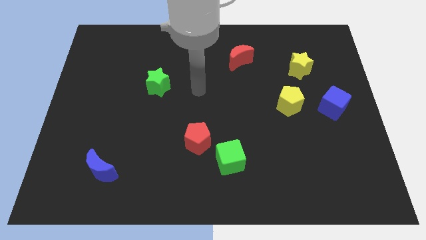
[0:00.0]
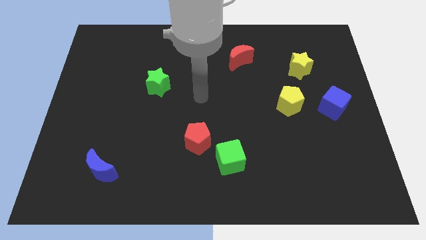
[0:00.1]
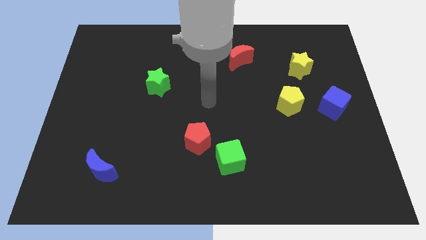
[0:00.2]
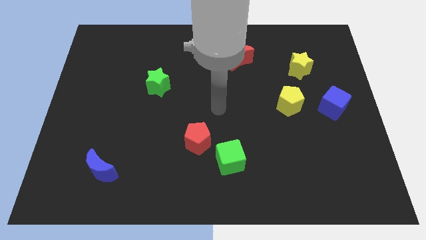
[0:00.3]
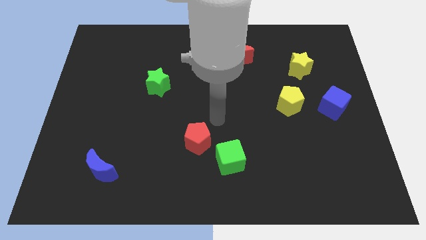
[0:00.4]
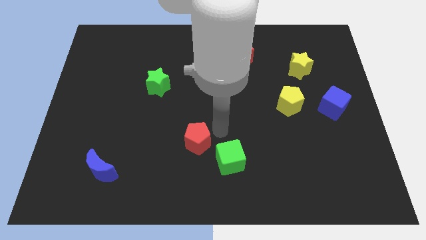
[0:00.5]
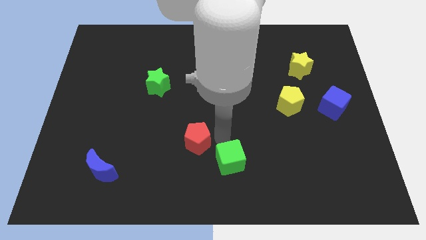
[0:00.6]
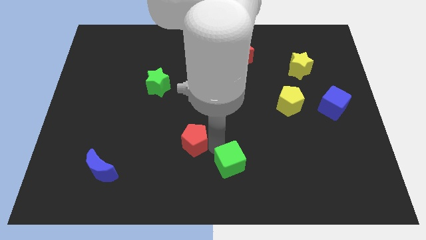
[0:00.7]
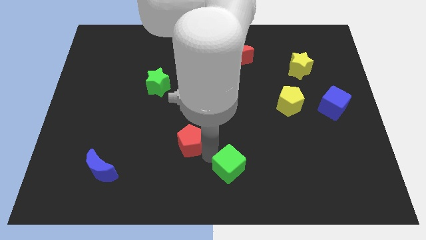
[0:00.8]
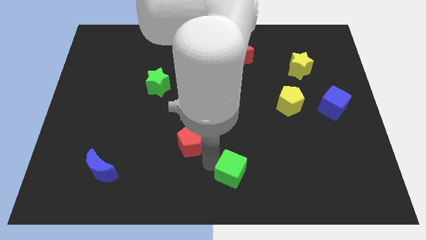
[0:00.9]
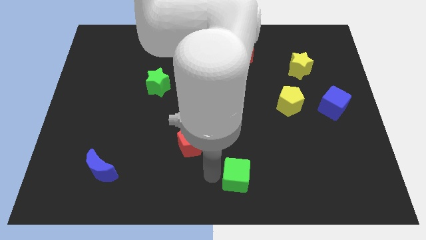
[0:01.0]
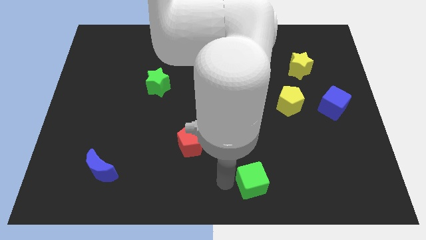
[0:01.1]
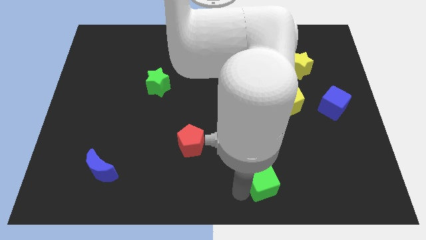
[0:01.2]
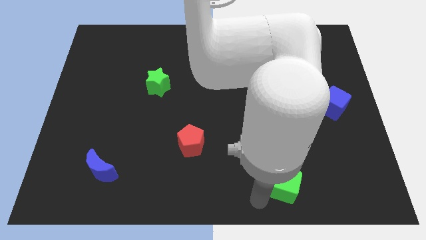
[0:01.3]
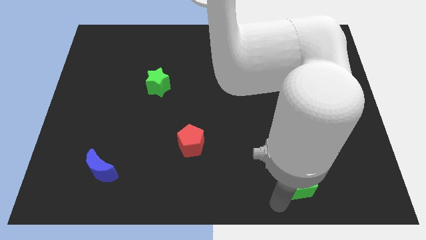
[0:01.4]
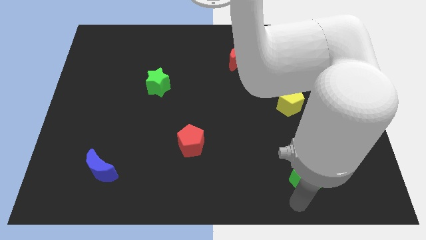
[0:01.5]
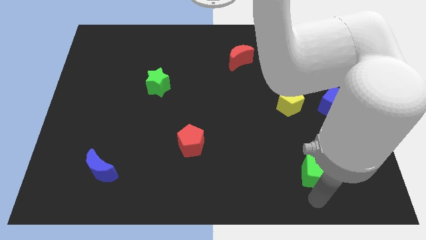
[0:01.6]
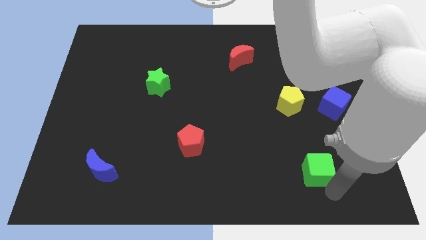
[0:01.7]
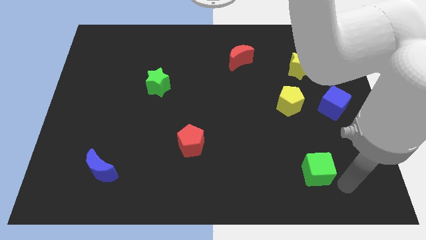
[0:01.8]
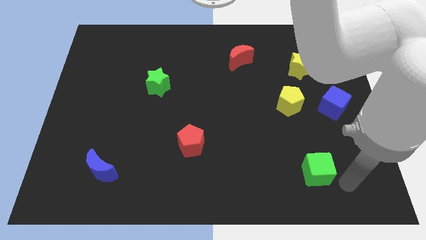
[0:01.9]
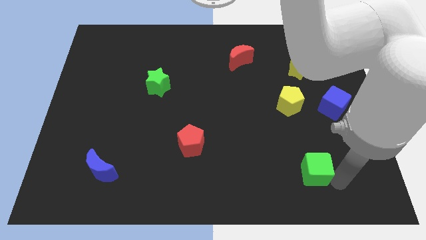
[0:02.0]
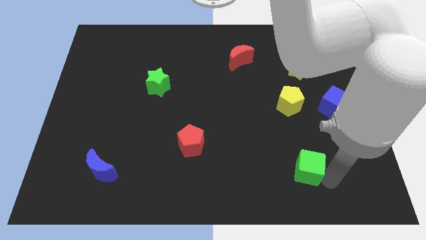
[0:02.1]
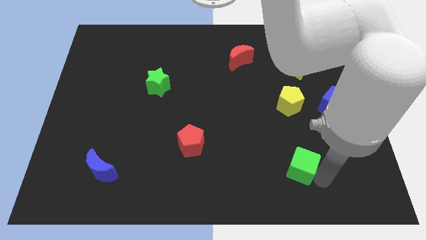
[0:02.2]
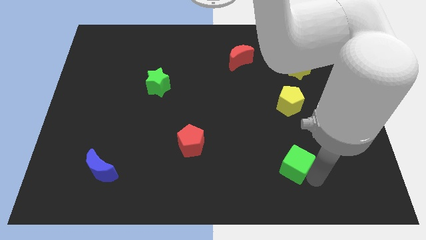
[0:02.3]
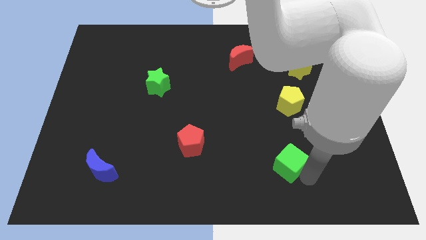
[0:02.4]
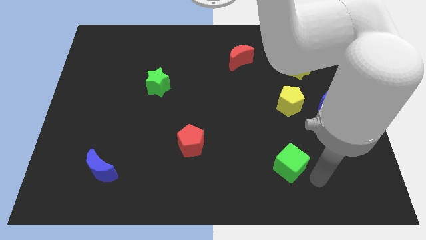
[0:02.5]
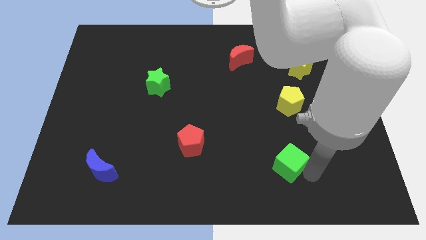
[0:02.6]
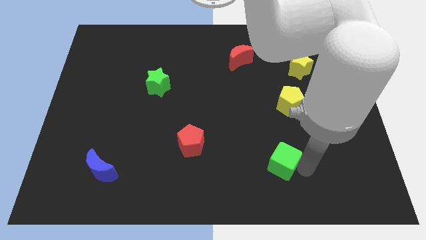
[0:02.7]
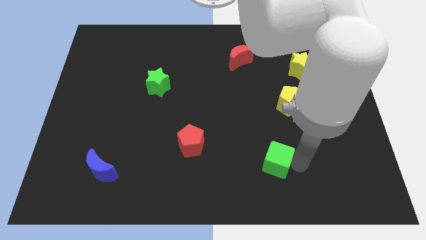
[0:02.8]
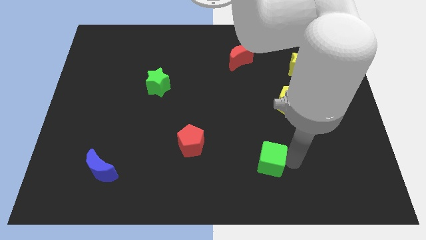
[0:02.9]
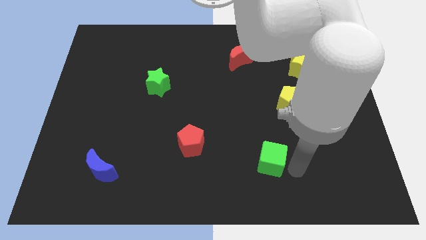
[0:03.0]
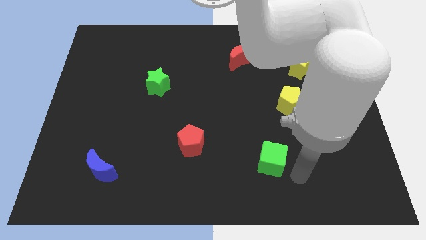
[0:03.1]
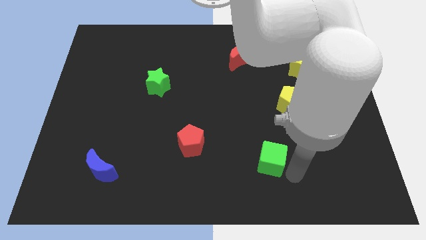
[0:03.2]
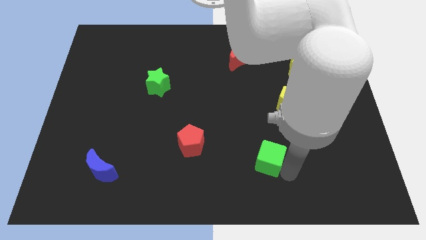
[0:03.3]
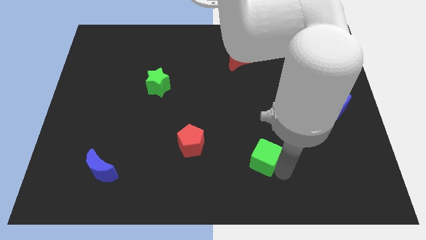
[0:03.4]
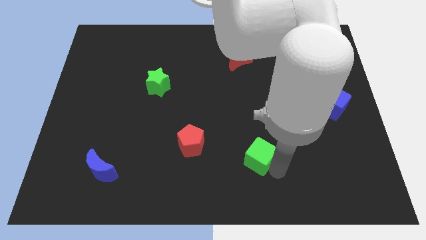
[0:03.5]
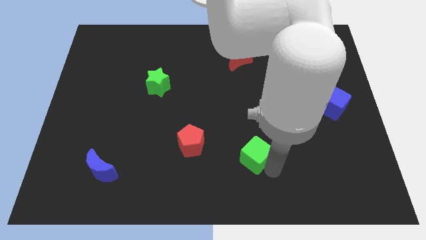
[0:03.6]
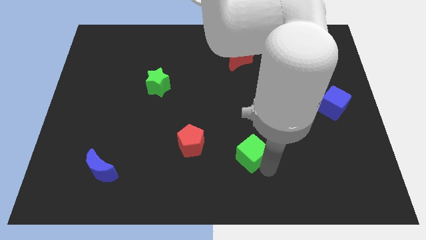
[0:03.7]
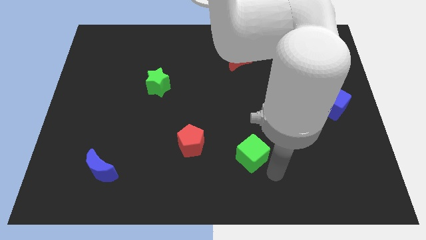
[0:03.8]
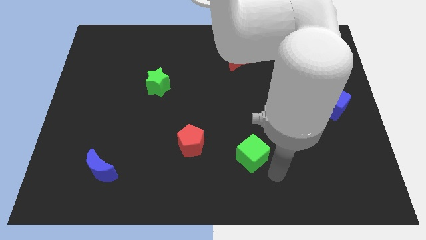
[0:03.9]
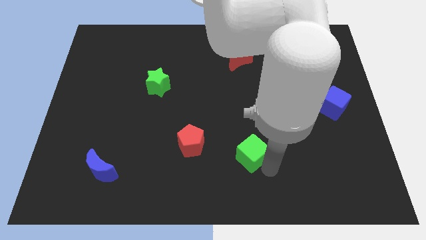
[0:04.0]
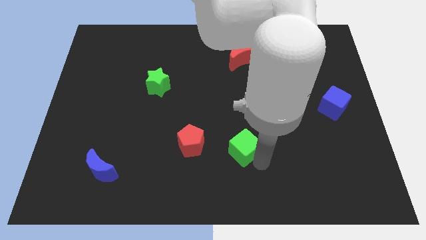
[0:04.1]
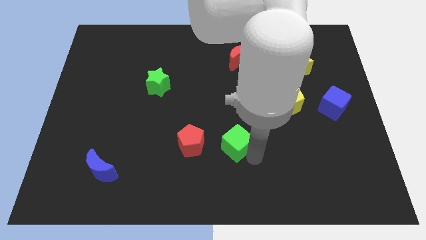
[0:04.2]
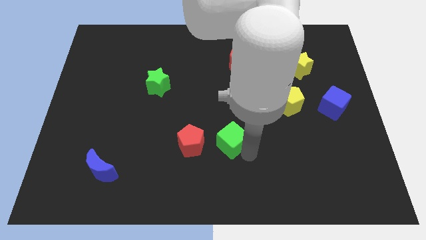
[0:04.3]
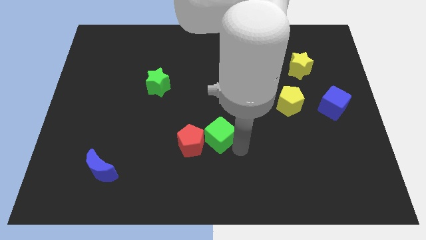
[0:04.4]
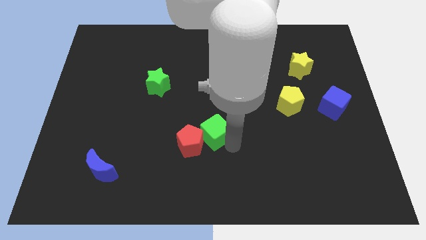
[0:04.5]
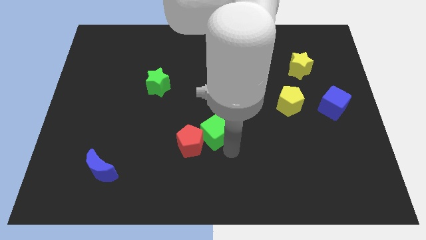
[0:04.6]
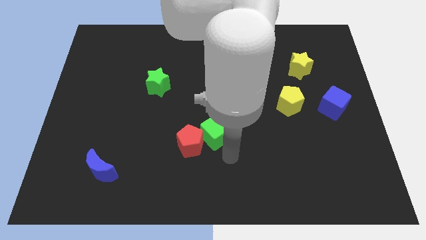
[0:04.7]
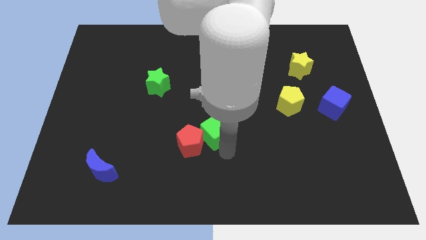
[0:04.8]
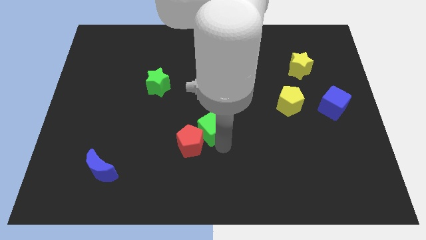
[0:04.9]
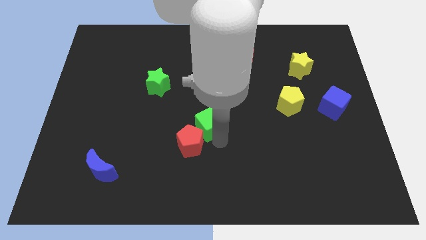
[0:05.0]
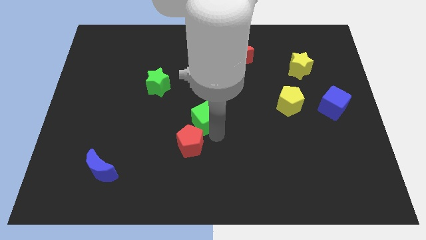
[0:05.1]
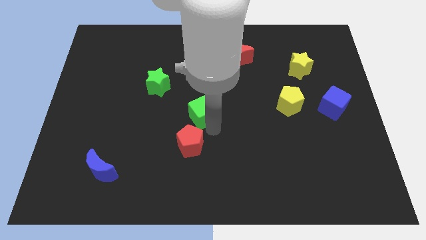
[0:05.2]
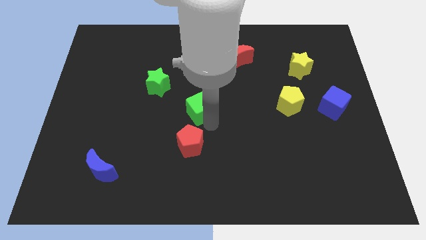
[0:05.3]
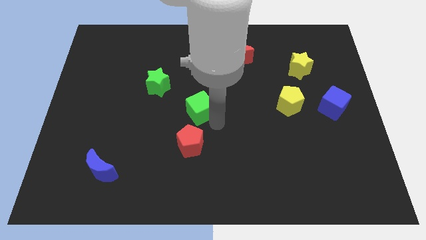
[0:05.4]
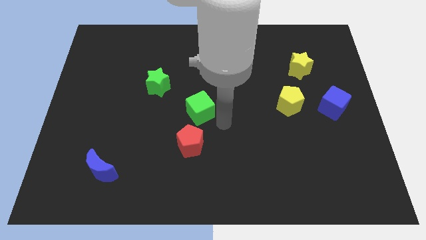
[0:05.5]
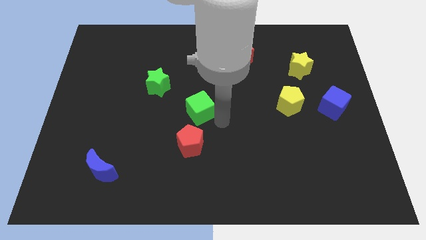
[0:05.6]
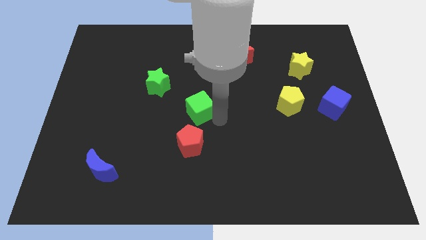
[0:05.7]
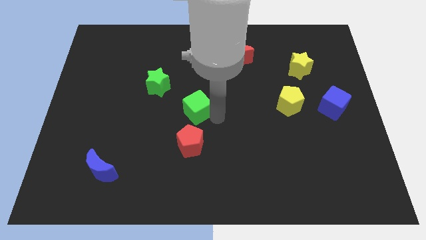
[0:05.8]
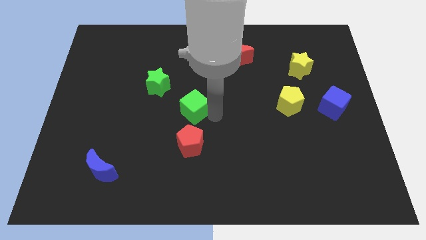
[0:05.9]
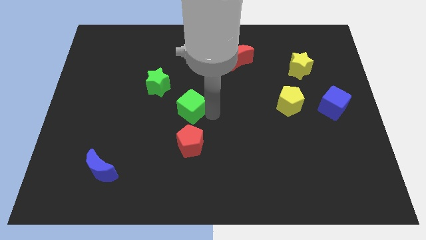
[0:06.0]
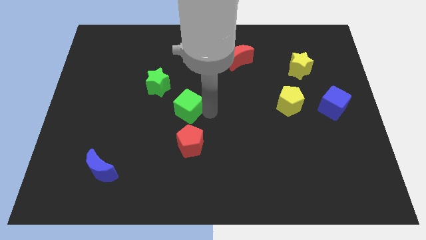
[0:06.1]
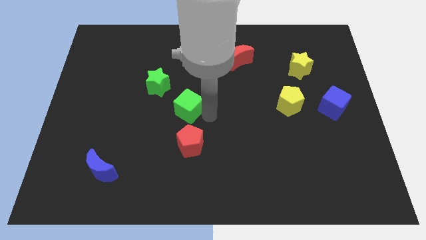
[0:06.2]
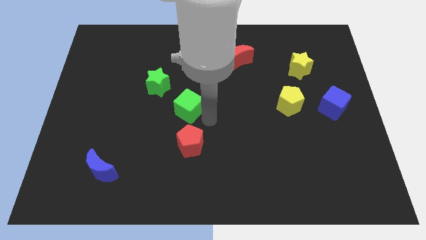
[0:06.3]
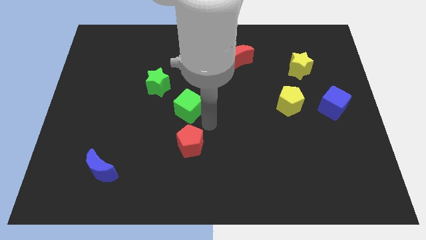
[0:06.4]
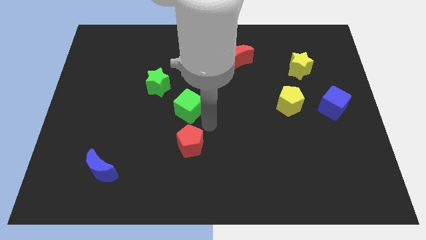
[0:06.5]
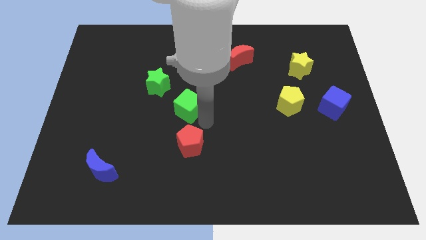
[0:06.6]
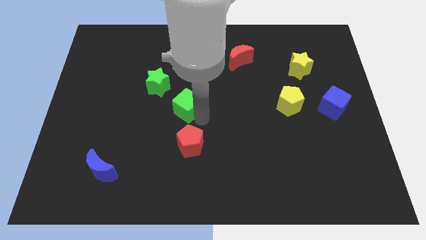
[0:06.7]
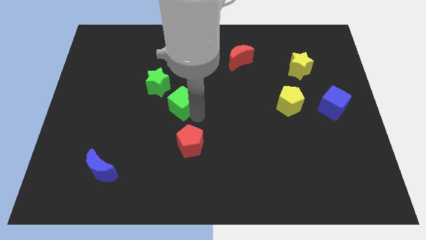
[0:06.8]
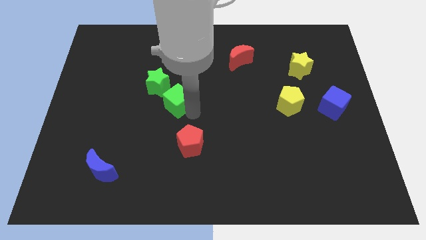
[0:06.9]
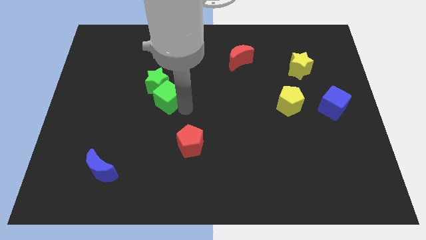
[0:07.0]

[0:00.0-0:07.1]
move the green cube next to the green star
